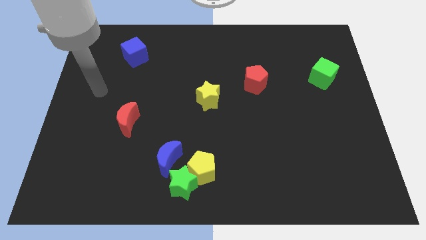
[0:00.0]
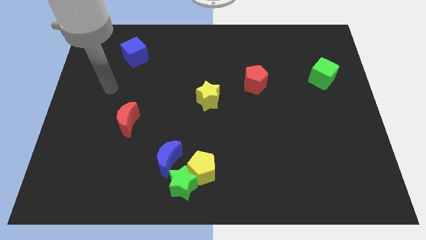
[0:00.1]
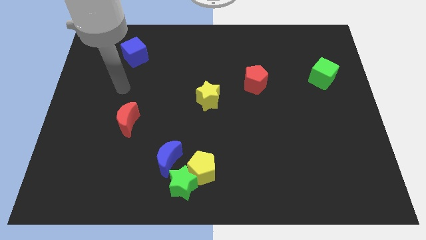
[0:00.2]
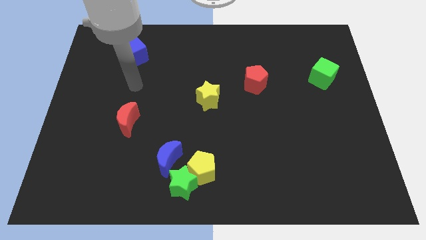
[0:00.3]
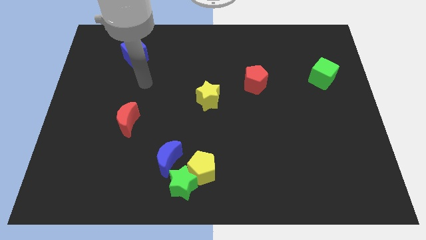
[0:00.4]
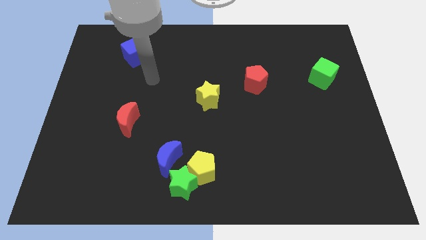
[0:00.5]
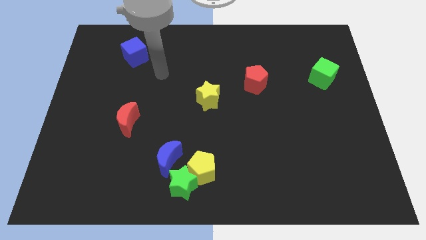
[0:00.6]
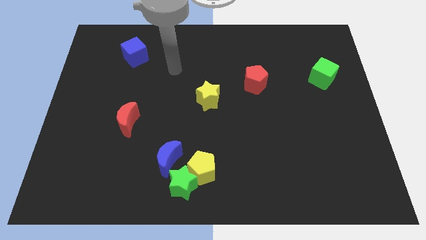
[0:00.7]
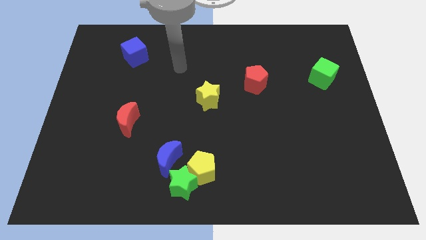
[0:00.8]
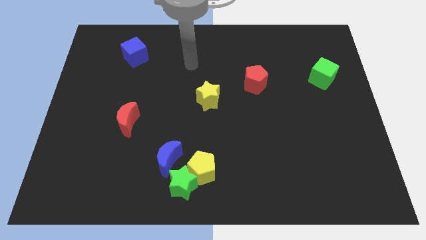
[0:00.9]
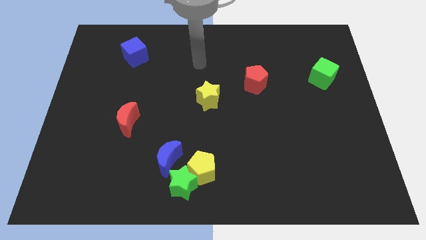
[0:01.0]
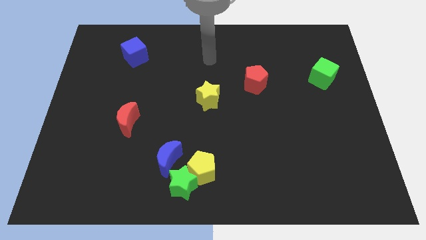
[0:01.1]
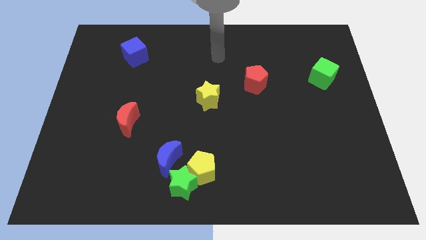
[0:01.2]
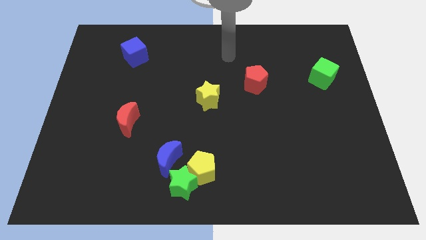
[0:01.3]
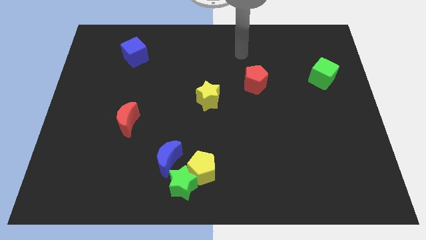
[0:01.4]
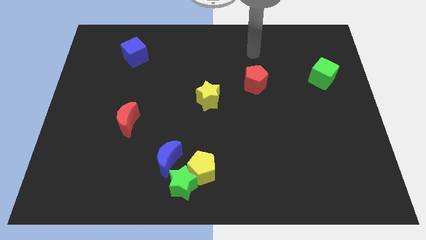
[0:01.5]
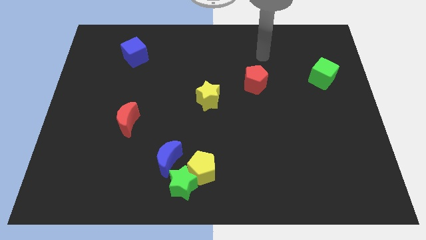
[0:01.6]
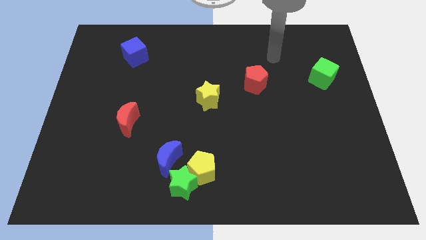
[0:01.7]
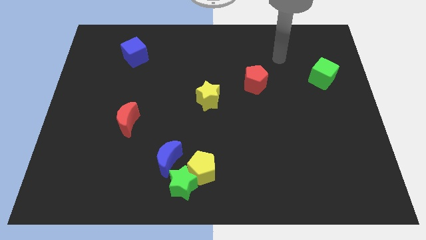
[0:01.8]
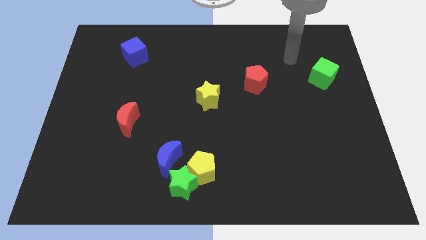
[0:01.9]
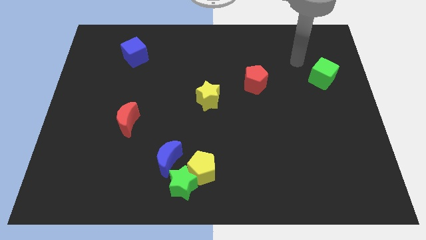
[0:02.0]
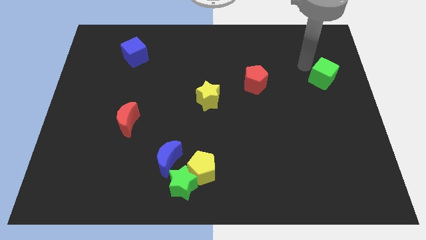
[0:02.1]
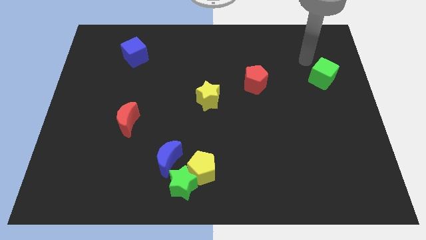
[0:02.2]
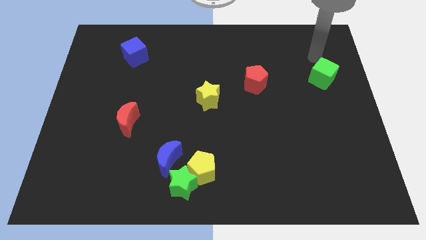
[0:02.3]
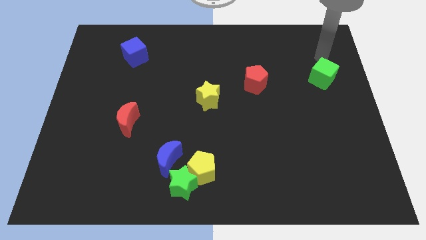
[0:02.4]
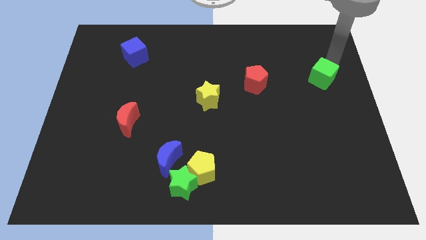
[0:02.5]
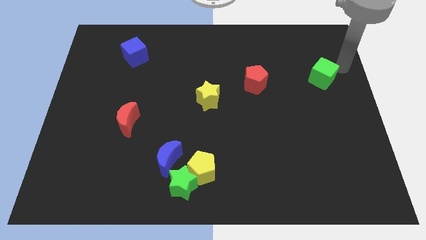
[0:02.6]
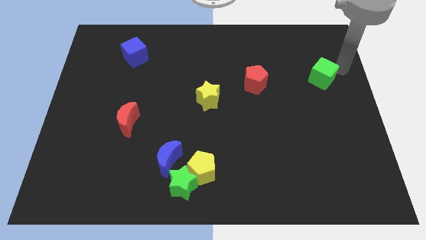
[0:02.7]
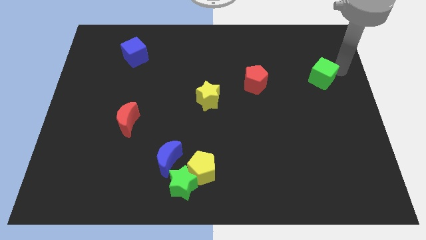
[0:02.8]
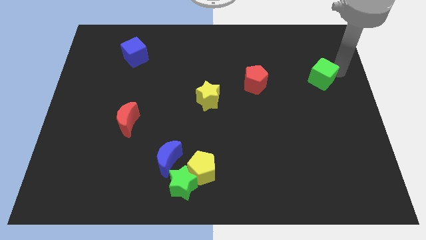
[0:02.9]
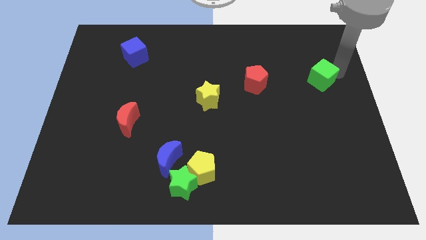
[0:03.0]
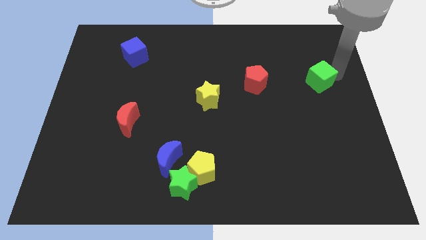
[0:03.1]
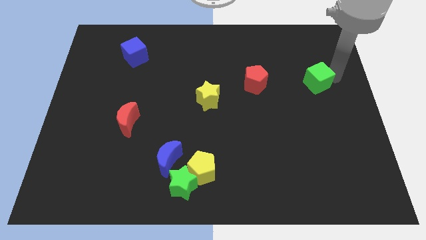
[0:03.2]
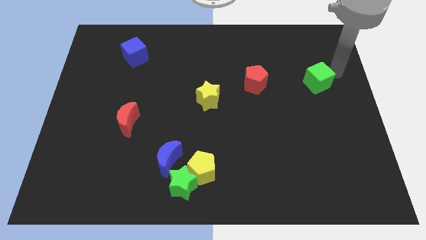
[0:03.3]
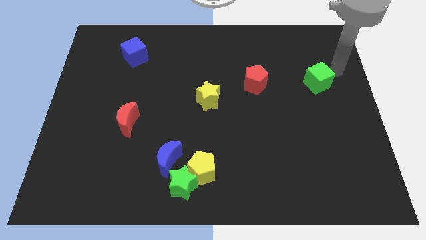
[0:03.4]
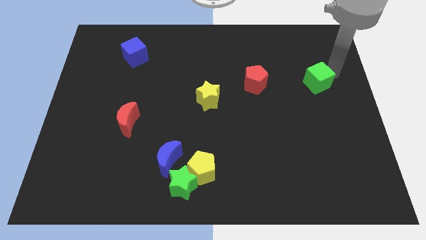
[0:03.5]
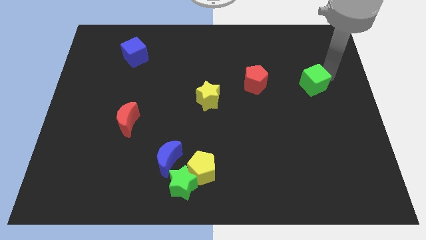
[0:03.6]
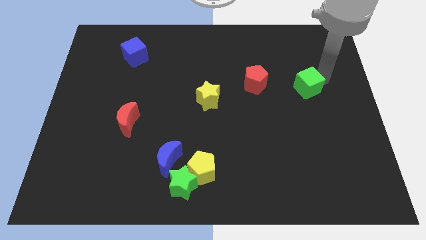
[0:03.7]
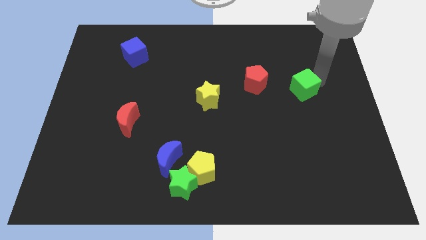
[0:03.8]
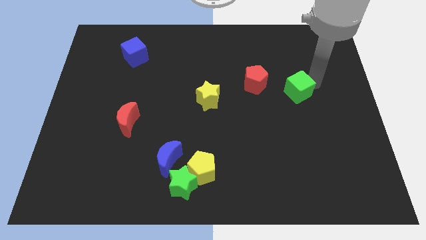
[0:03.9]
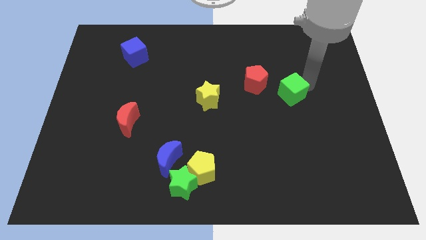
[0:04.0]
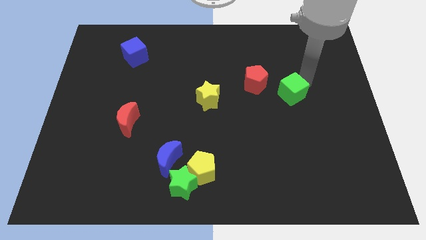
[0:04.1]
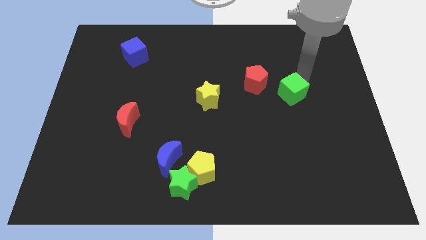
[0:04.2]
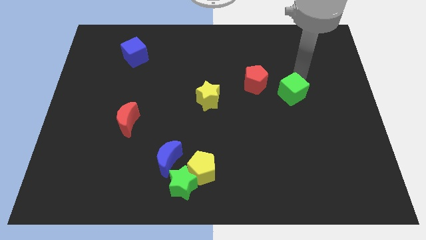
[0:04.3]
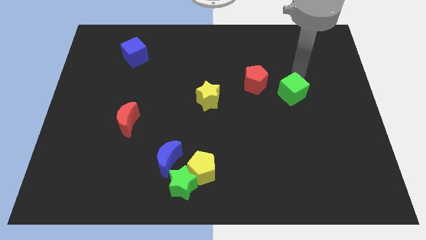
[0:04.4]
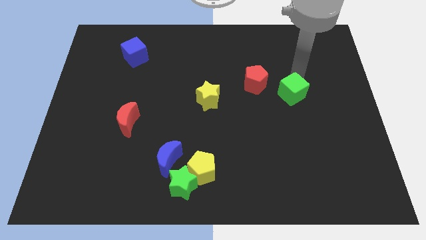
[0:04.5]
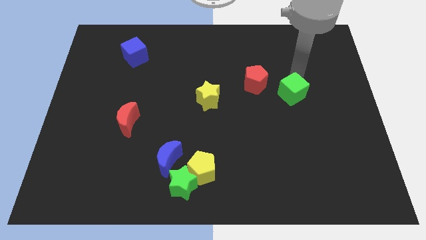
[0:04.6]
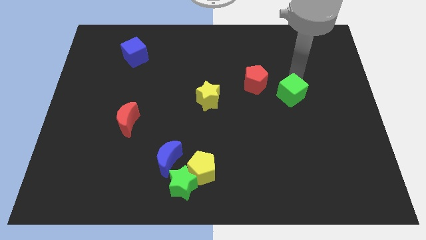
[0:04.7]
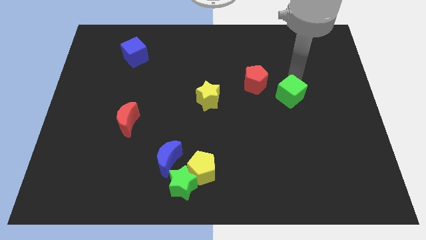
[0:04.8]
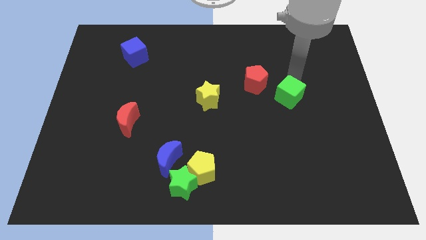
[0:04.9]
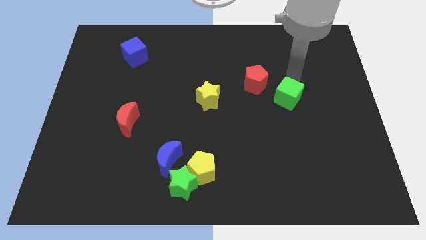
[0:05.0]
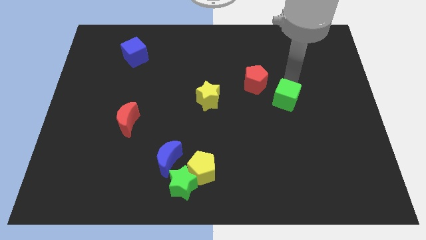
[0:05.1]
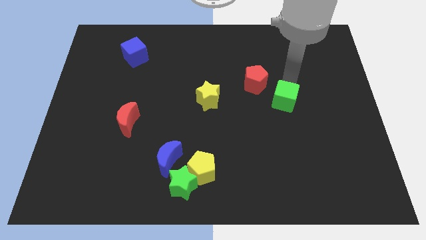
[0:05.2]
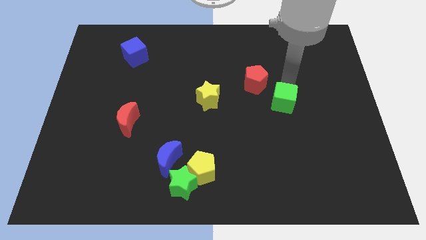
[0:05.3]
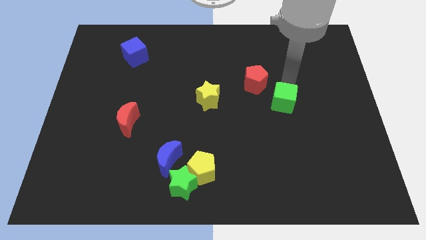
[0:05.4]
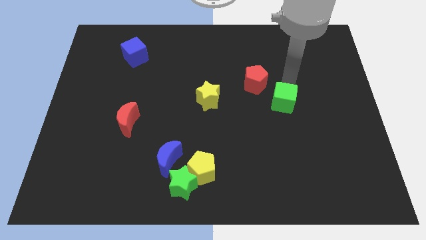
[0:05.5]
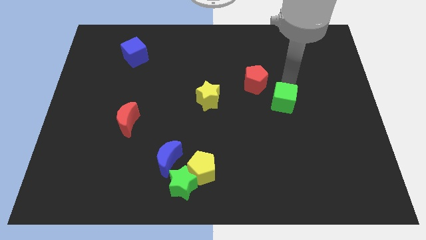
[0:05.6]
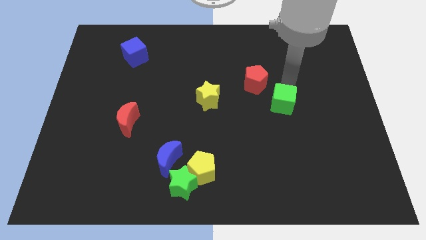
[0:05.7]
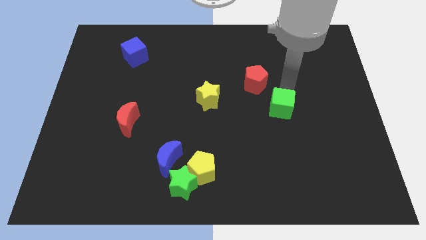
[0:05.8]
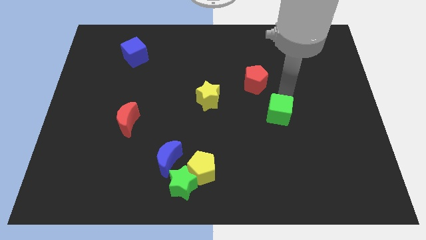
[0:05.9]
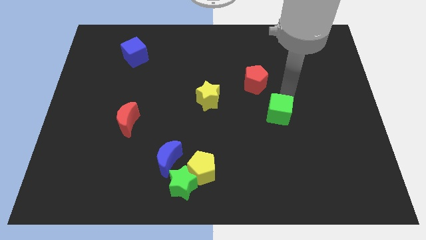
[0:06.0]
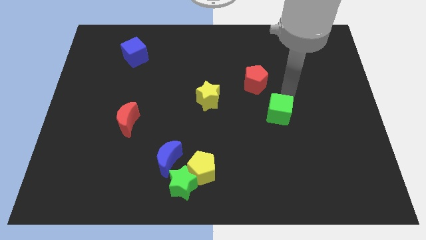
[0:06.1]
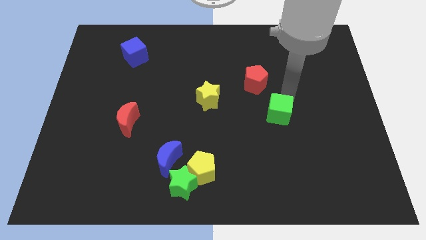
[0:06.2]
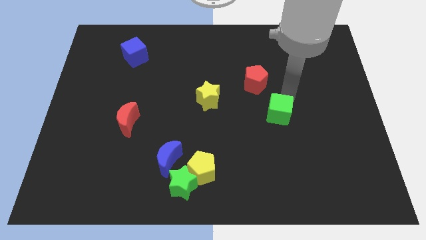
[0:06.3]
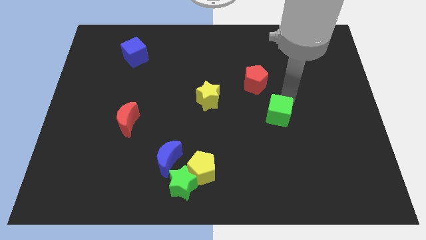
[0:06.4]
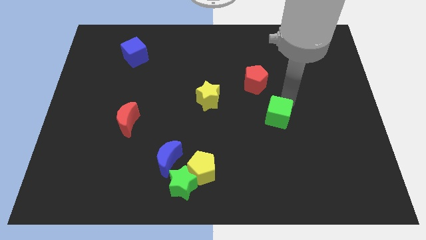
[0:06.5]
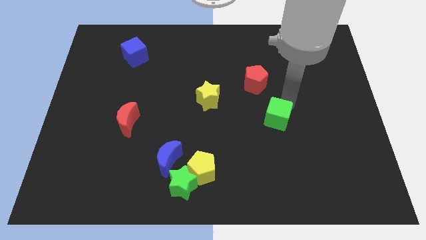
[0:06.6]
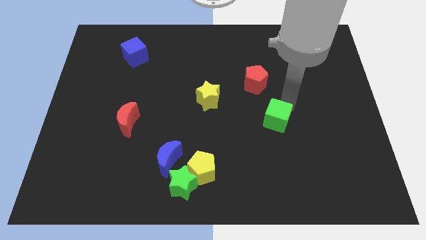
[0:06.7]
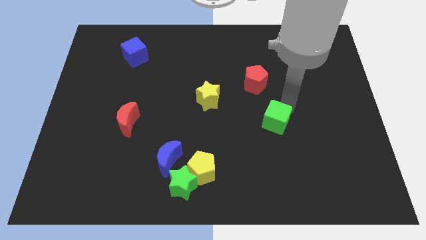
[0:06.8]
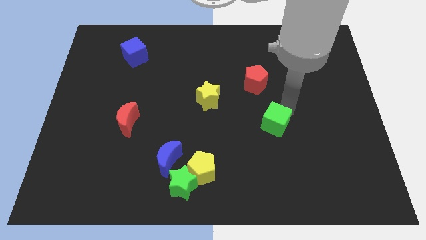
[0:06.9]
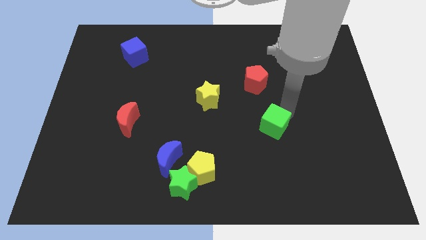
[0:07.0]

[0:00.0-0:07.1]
push the green cube diagonally downwards and to the left

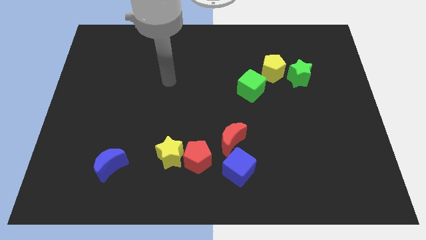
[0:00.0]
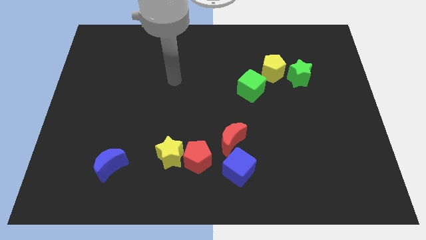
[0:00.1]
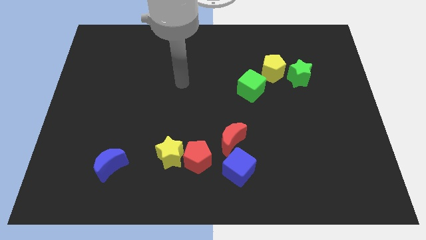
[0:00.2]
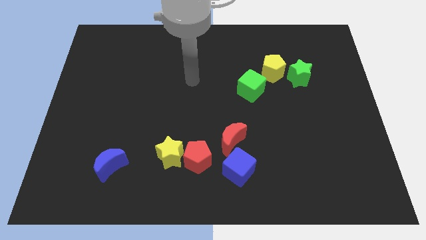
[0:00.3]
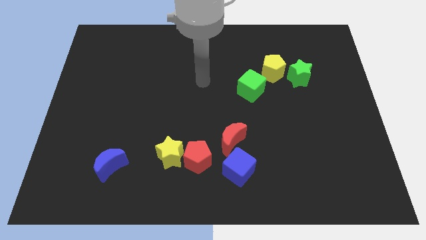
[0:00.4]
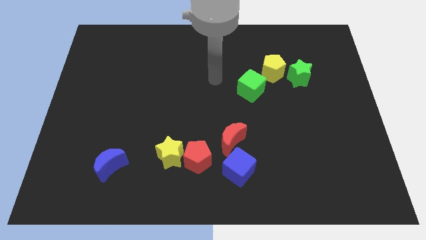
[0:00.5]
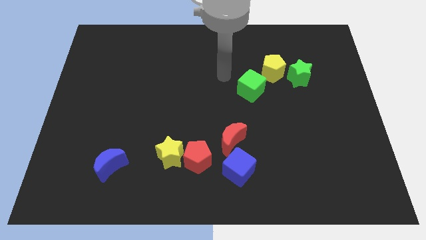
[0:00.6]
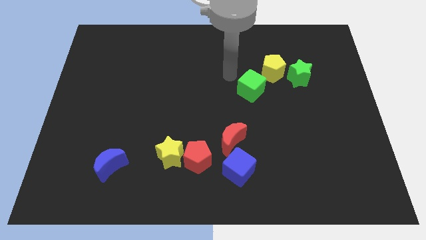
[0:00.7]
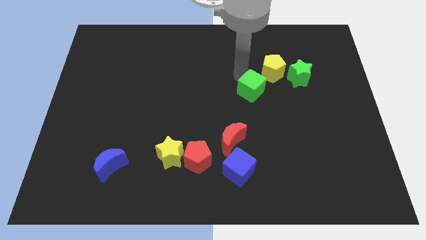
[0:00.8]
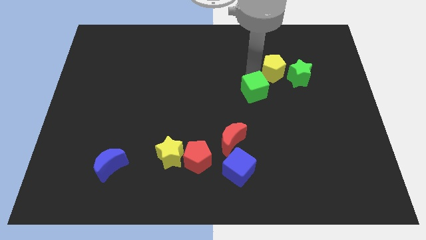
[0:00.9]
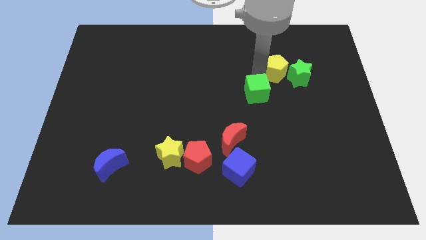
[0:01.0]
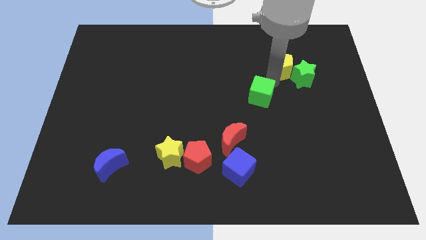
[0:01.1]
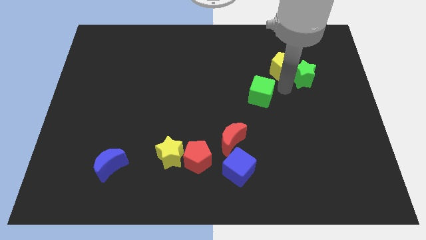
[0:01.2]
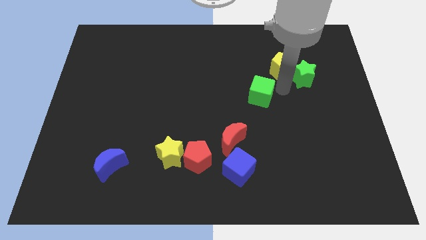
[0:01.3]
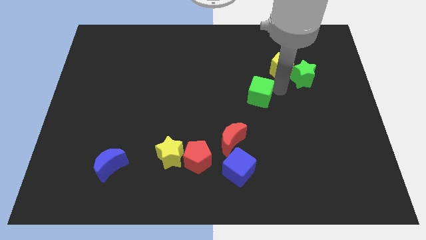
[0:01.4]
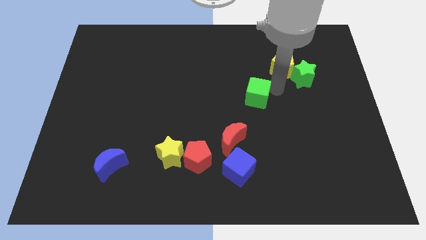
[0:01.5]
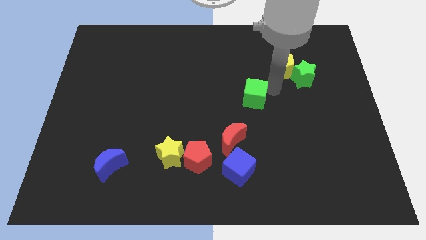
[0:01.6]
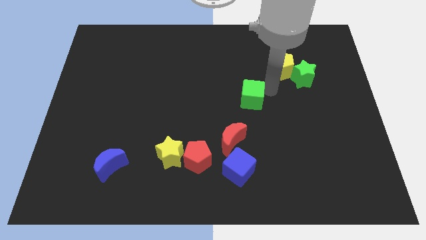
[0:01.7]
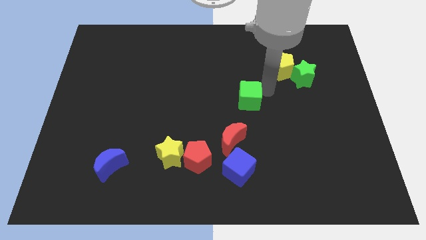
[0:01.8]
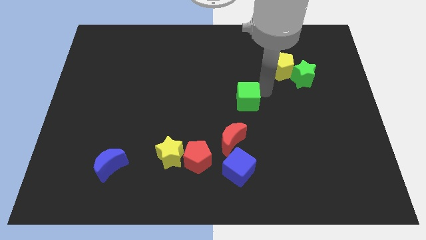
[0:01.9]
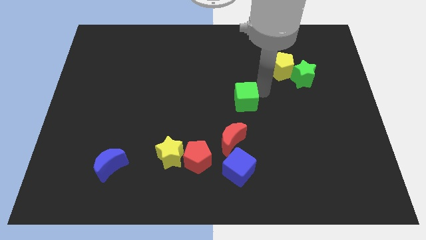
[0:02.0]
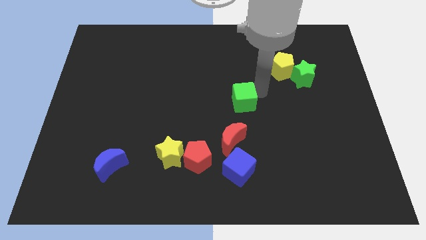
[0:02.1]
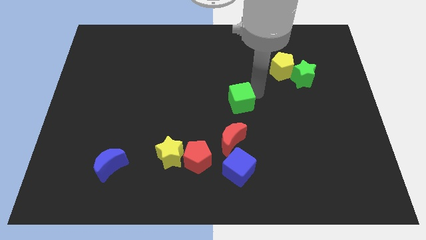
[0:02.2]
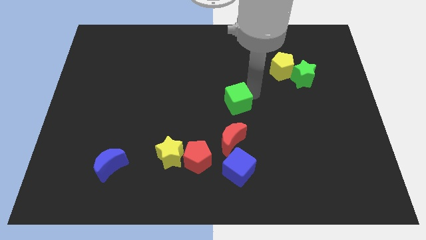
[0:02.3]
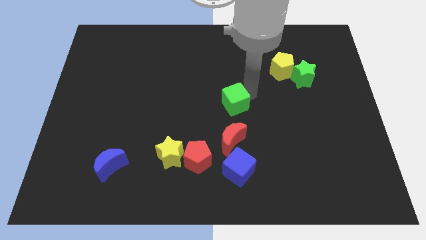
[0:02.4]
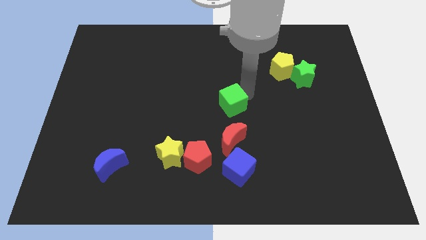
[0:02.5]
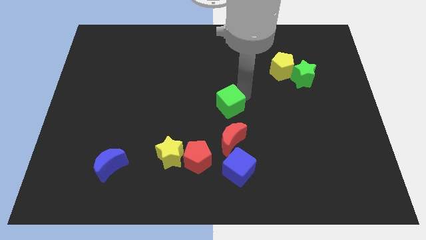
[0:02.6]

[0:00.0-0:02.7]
slide the green cube down and then left a little
